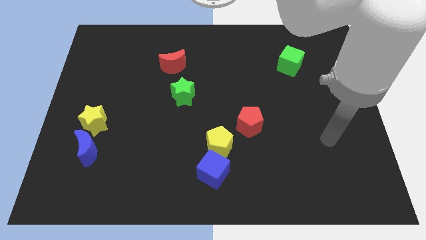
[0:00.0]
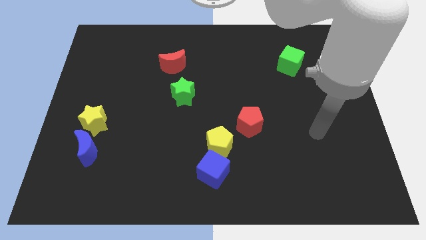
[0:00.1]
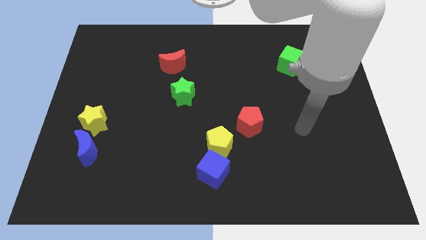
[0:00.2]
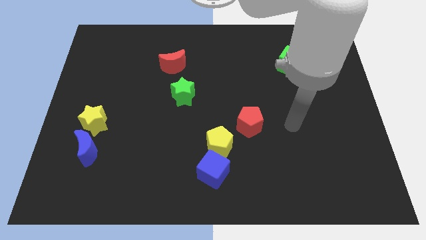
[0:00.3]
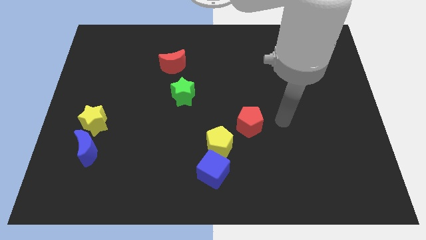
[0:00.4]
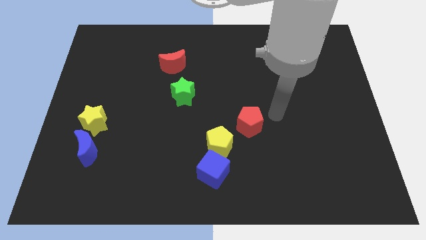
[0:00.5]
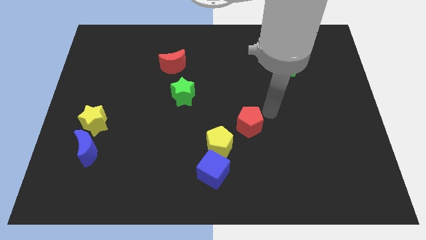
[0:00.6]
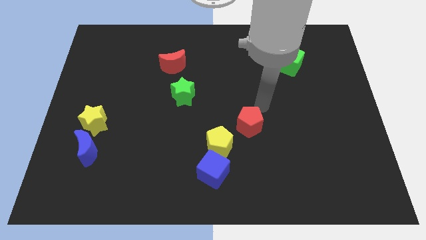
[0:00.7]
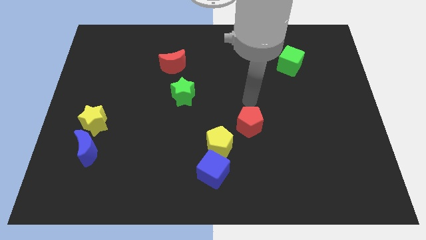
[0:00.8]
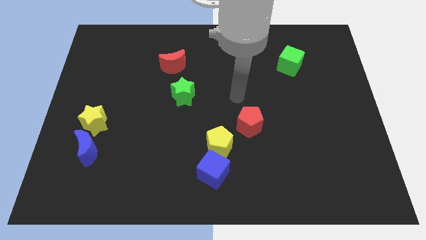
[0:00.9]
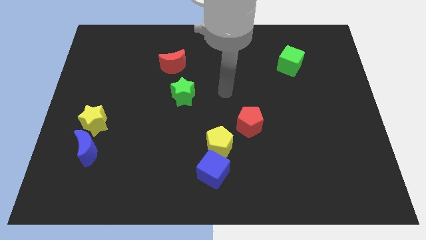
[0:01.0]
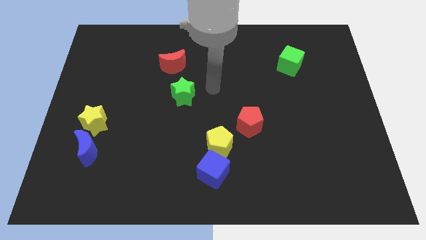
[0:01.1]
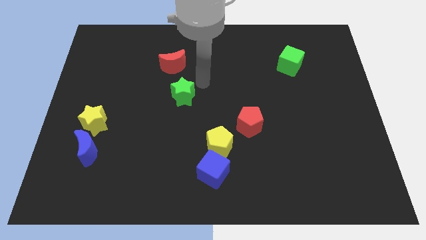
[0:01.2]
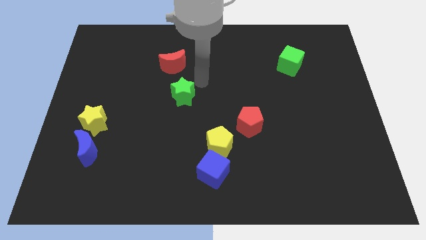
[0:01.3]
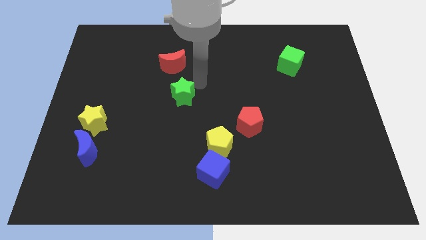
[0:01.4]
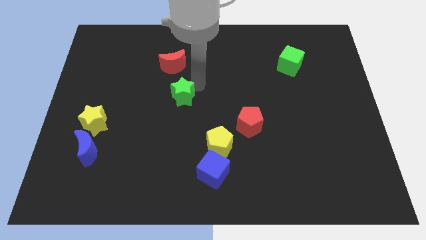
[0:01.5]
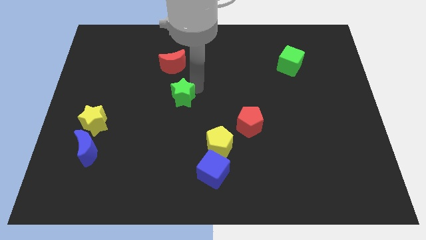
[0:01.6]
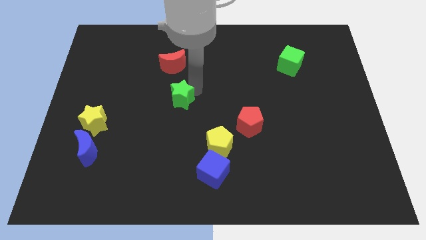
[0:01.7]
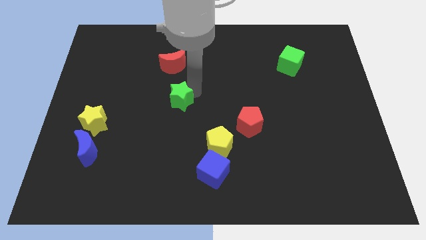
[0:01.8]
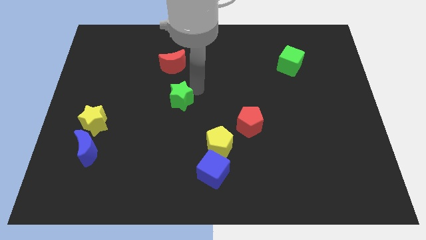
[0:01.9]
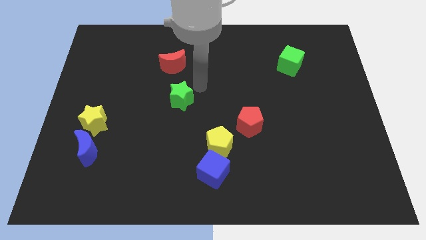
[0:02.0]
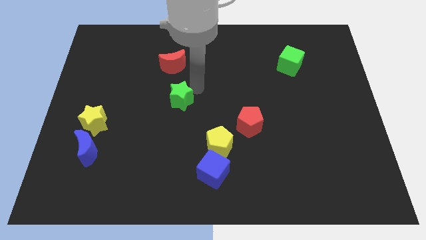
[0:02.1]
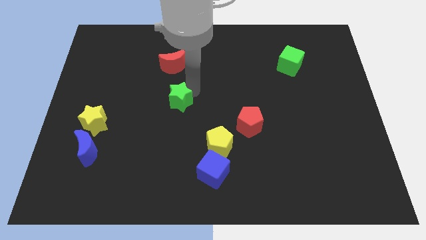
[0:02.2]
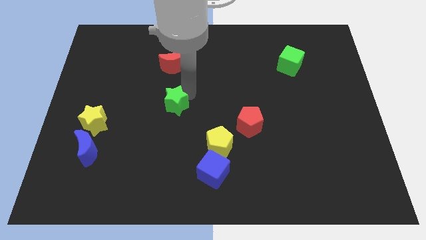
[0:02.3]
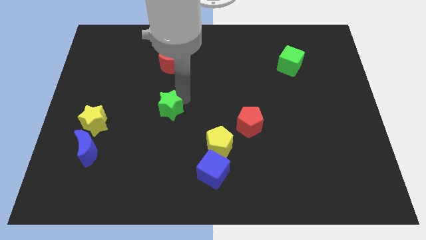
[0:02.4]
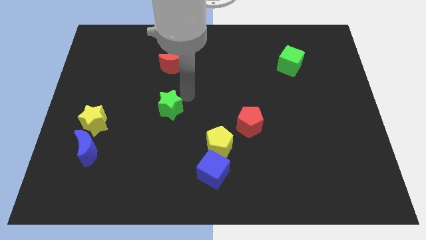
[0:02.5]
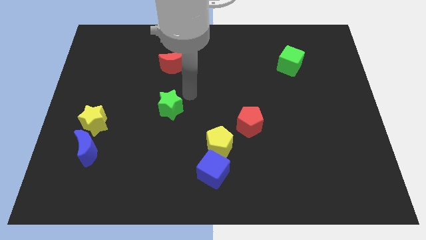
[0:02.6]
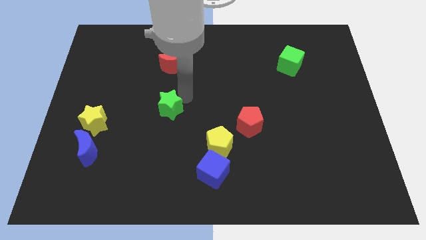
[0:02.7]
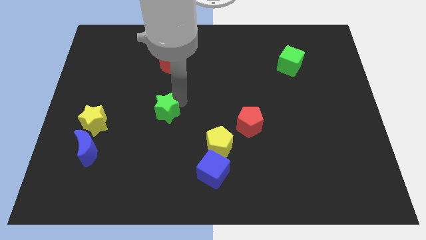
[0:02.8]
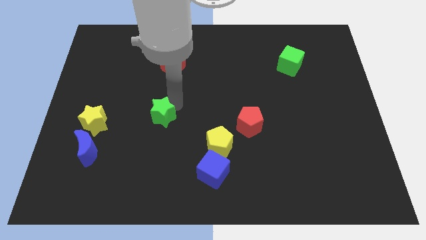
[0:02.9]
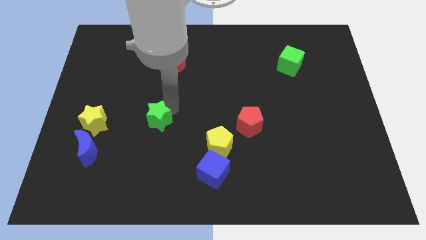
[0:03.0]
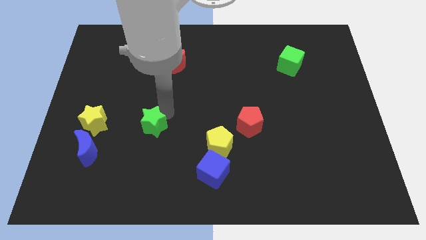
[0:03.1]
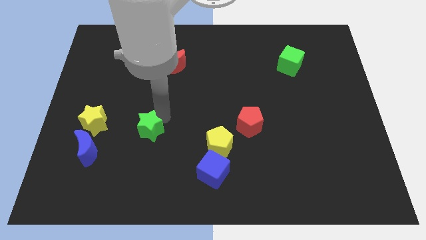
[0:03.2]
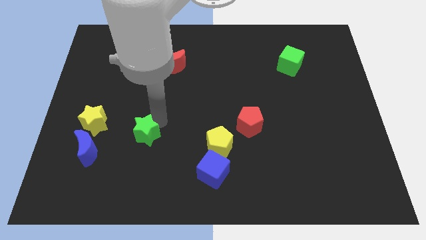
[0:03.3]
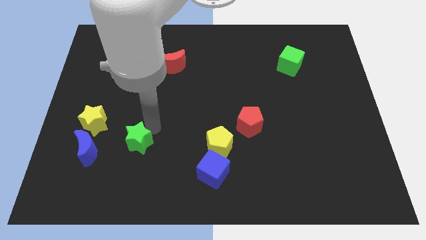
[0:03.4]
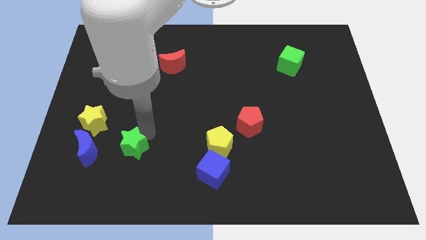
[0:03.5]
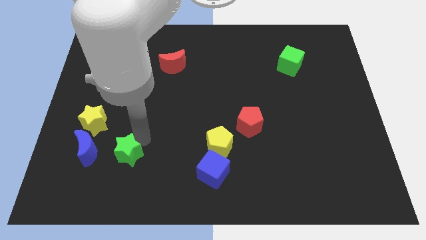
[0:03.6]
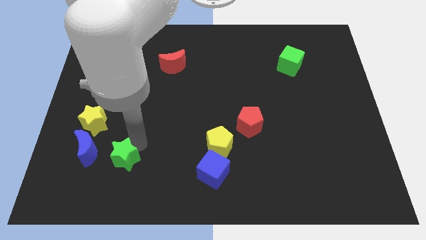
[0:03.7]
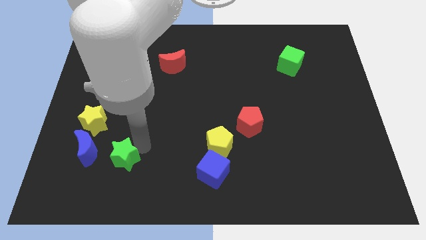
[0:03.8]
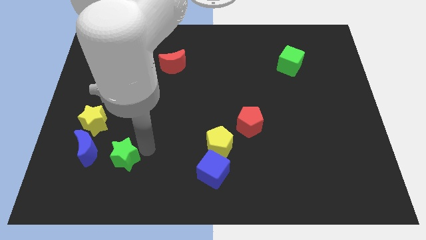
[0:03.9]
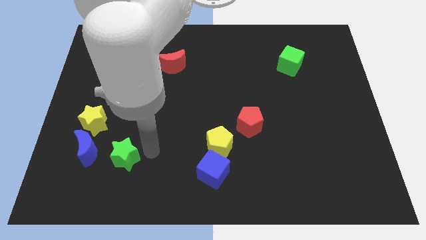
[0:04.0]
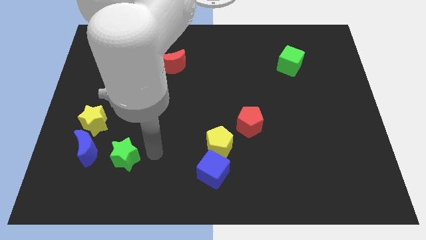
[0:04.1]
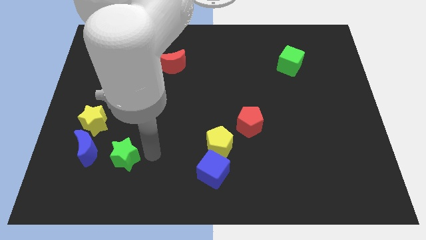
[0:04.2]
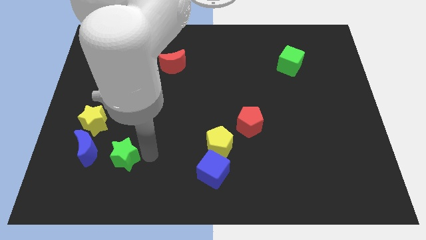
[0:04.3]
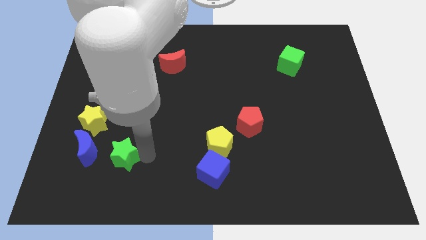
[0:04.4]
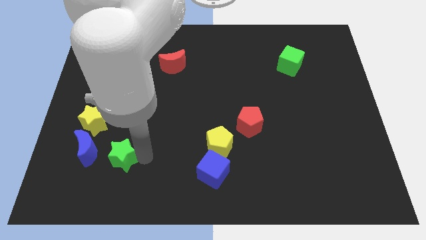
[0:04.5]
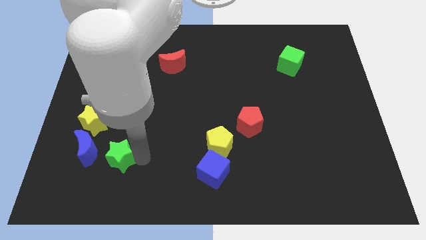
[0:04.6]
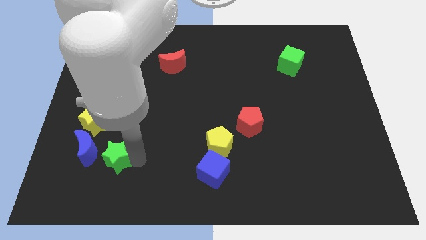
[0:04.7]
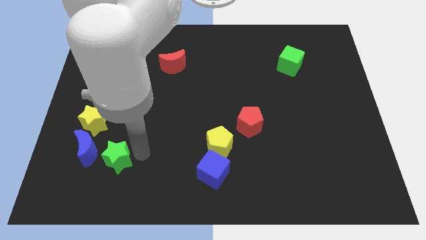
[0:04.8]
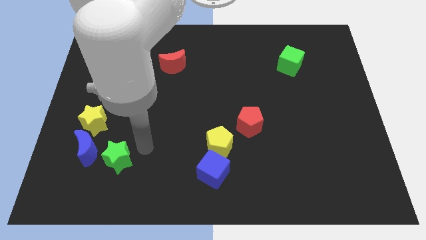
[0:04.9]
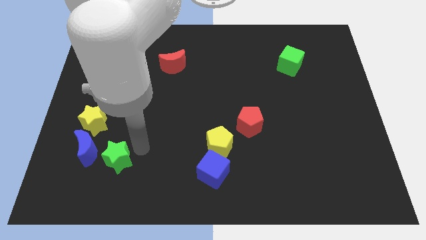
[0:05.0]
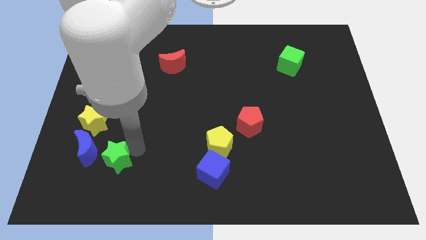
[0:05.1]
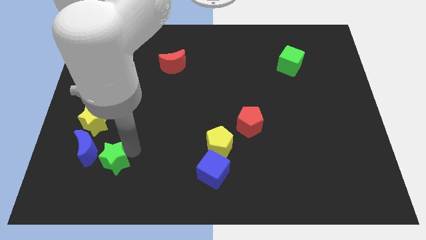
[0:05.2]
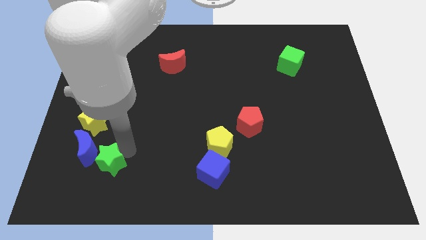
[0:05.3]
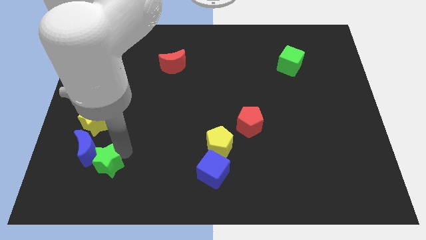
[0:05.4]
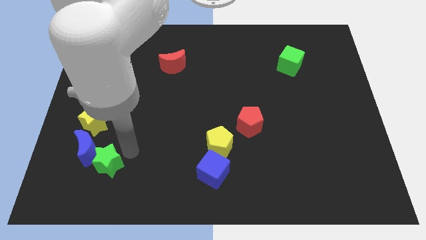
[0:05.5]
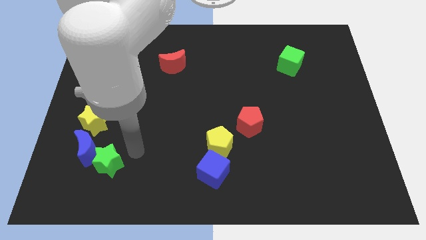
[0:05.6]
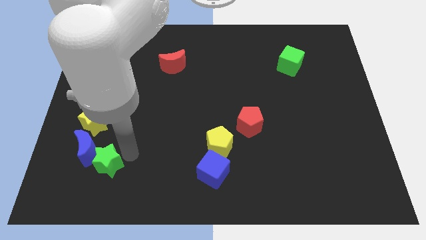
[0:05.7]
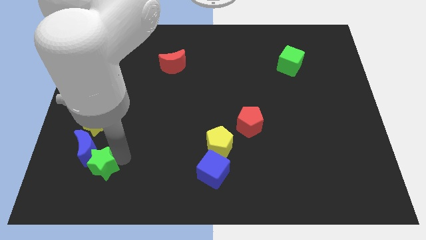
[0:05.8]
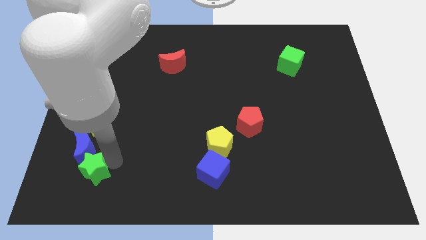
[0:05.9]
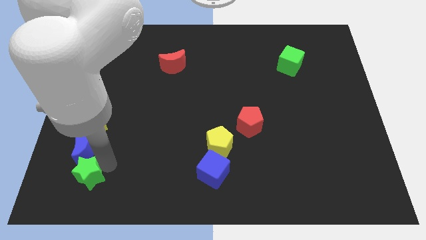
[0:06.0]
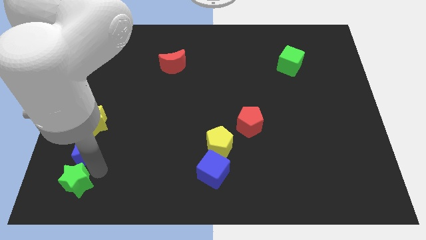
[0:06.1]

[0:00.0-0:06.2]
push the green star to the lower left corner
